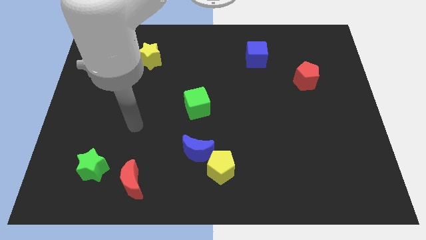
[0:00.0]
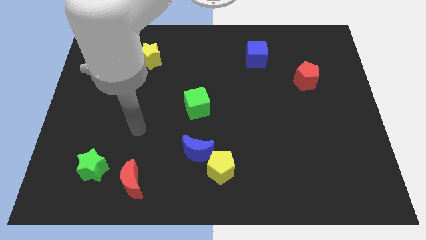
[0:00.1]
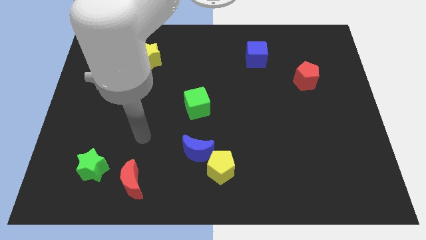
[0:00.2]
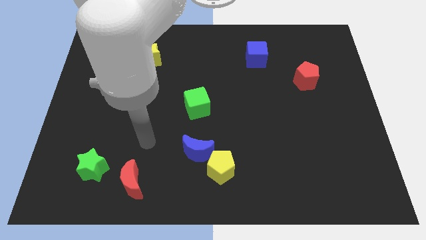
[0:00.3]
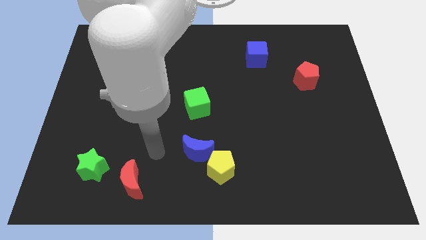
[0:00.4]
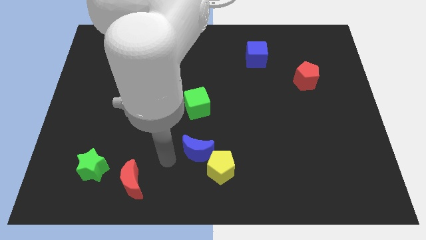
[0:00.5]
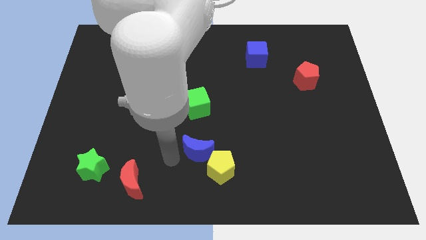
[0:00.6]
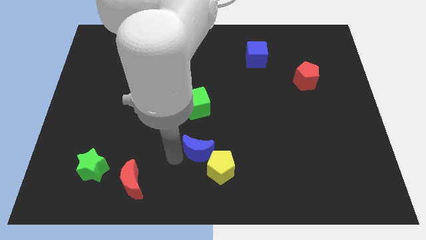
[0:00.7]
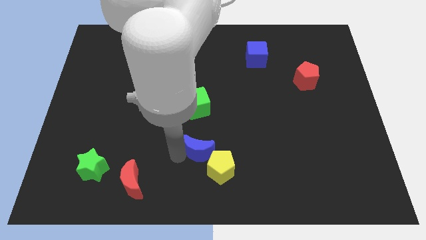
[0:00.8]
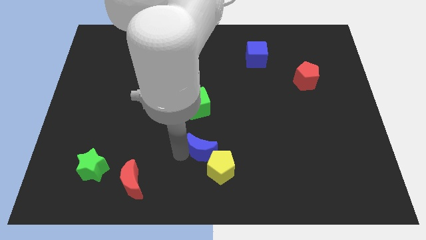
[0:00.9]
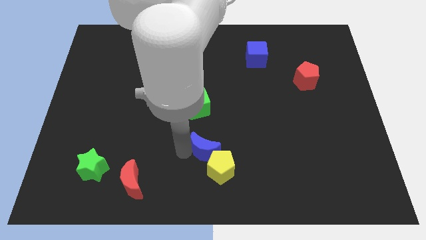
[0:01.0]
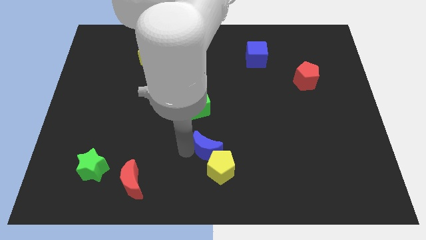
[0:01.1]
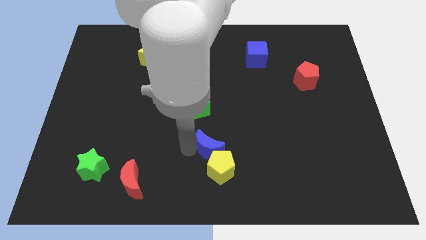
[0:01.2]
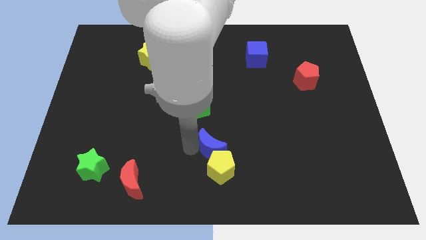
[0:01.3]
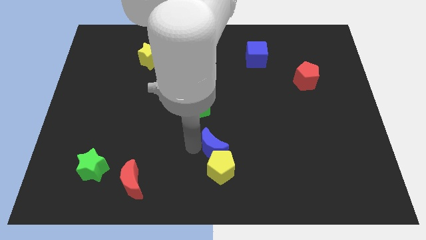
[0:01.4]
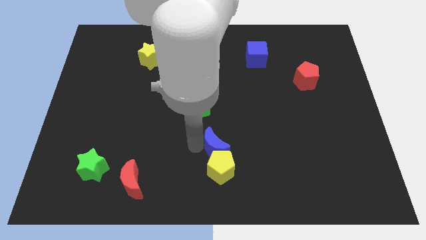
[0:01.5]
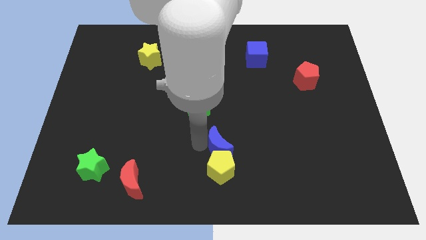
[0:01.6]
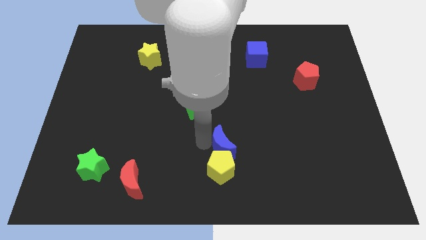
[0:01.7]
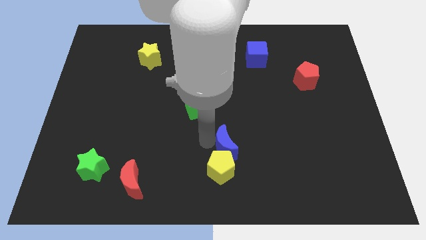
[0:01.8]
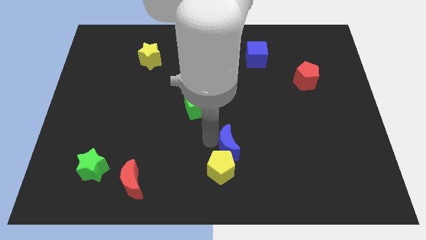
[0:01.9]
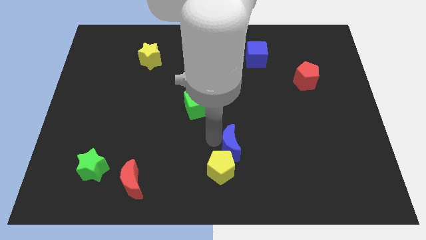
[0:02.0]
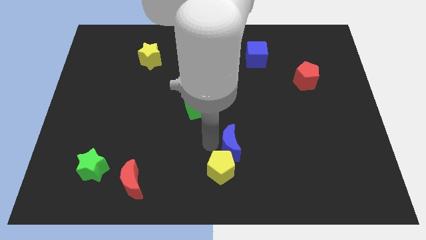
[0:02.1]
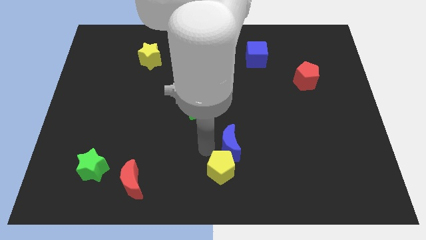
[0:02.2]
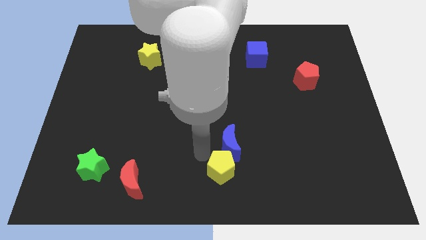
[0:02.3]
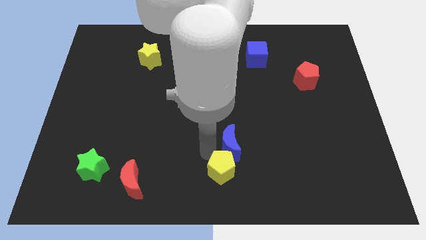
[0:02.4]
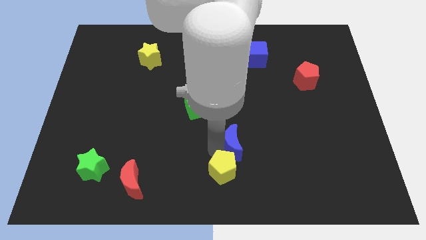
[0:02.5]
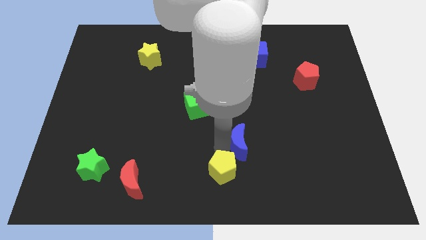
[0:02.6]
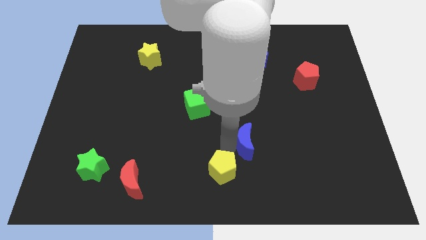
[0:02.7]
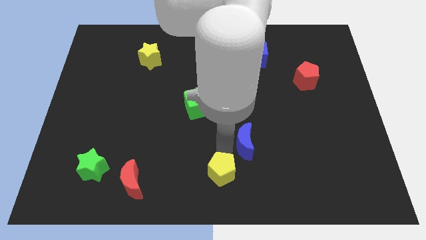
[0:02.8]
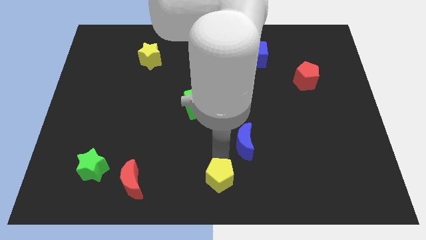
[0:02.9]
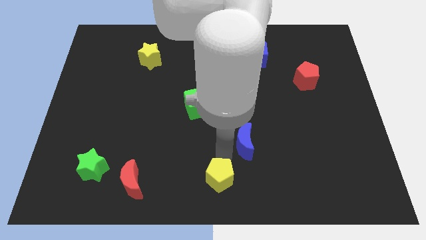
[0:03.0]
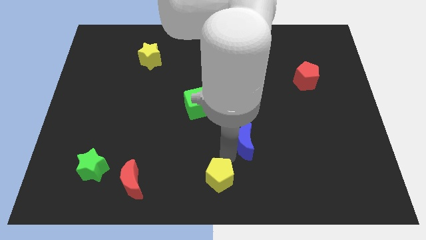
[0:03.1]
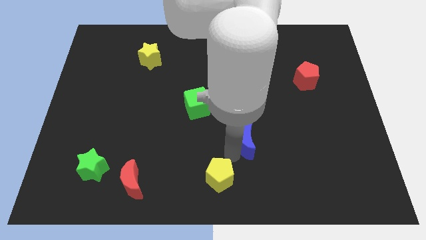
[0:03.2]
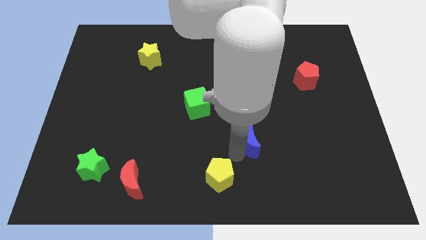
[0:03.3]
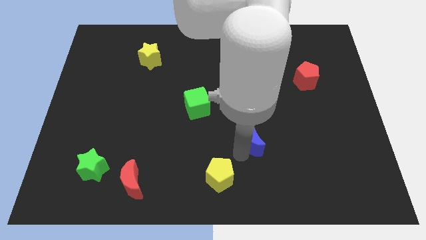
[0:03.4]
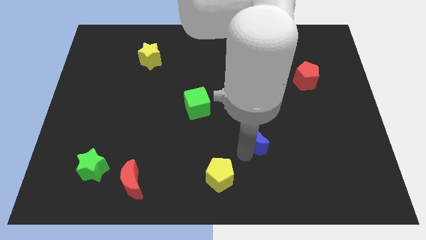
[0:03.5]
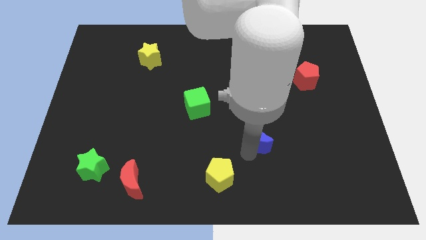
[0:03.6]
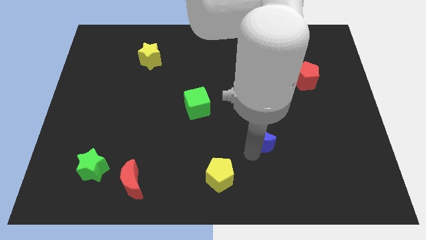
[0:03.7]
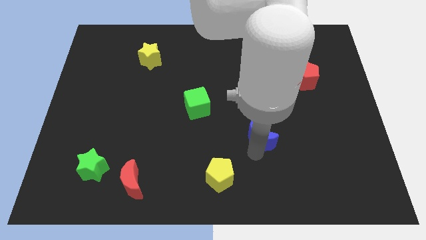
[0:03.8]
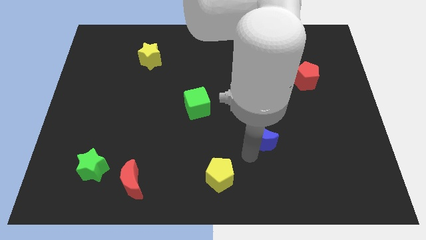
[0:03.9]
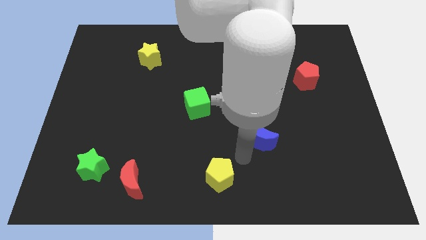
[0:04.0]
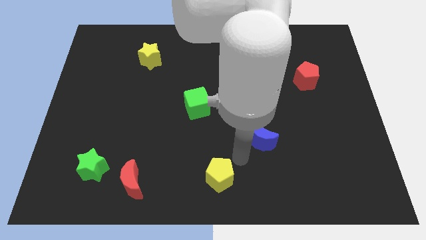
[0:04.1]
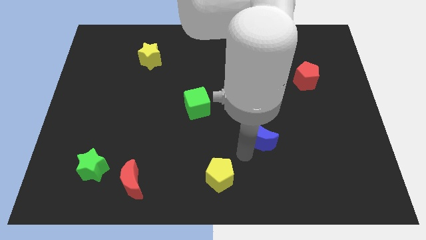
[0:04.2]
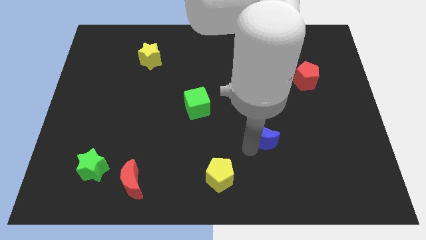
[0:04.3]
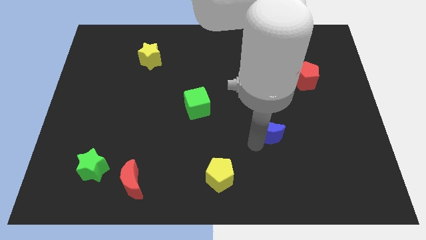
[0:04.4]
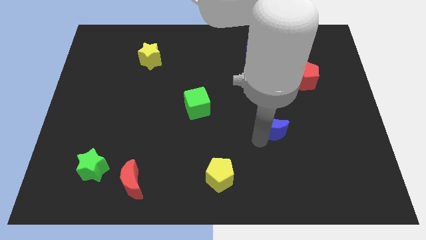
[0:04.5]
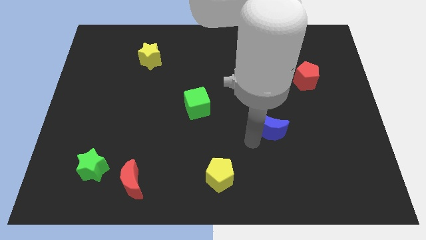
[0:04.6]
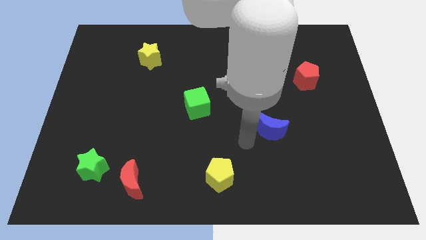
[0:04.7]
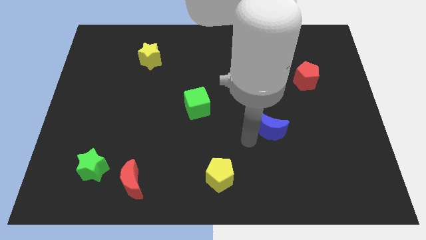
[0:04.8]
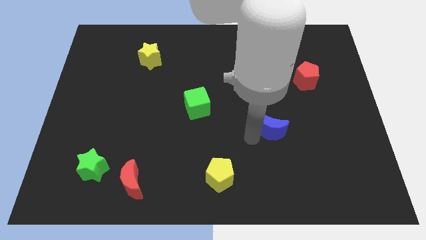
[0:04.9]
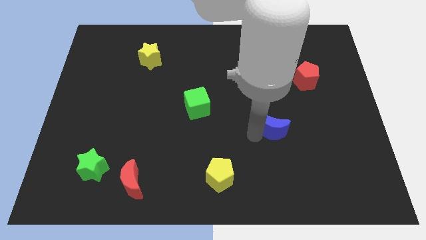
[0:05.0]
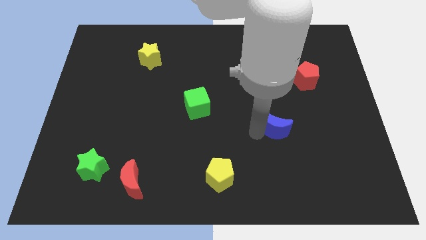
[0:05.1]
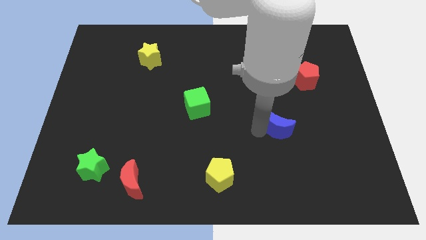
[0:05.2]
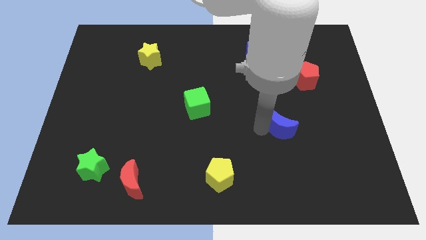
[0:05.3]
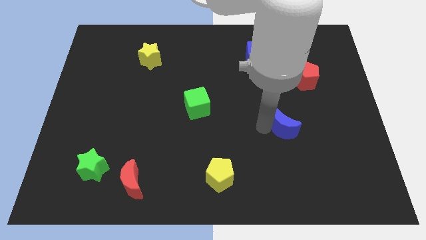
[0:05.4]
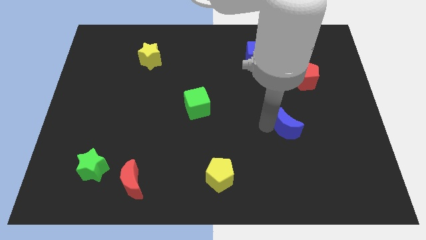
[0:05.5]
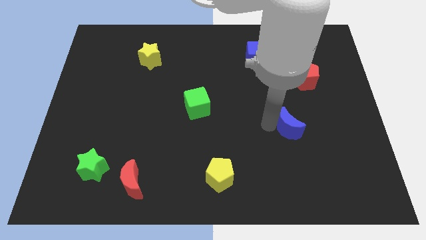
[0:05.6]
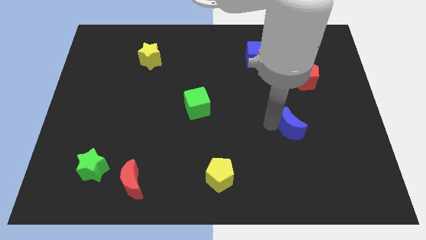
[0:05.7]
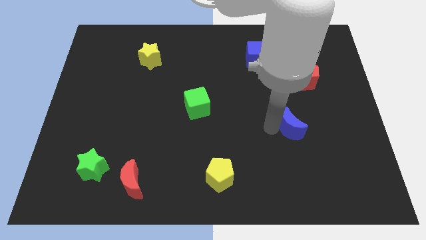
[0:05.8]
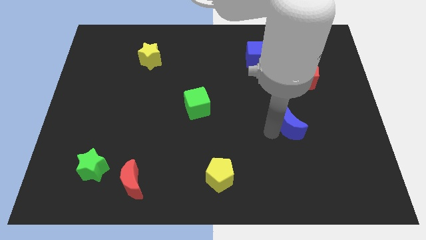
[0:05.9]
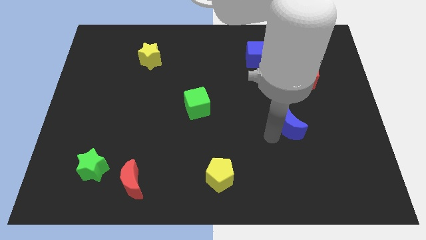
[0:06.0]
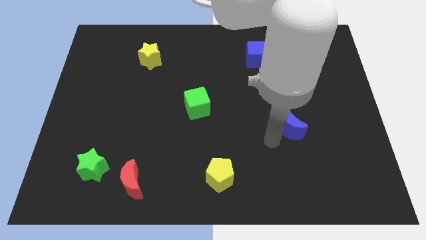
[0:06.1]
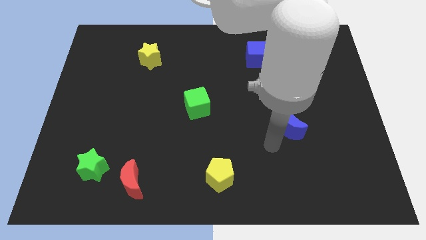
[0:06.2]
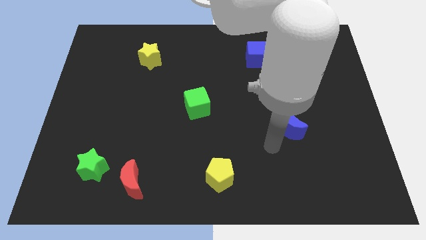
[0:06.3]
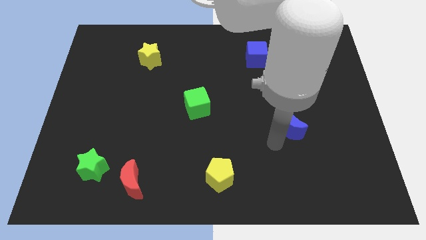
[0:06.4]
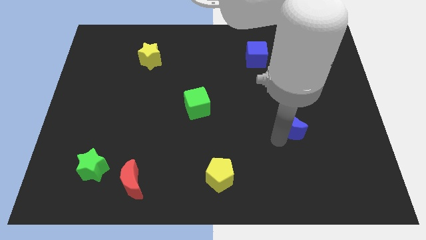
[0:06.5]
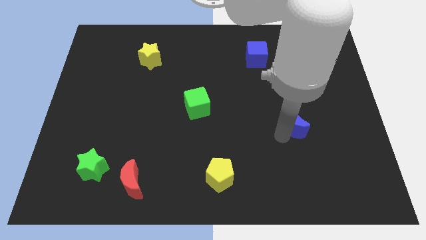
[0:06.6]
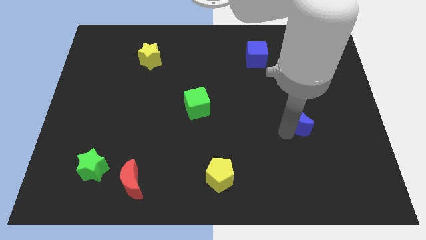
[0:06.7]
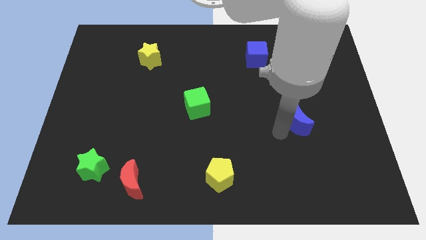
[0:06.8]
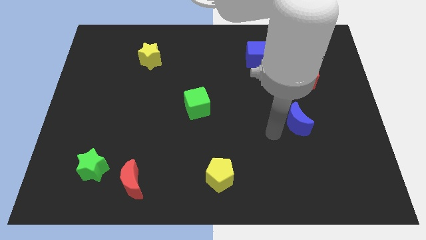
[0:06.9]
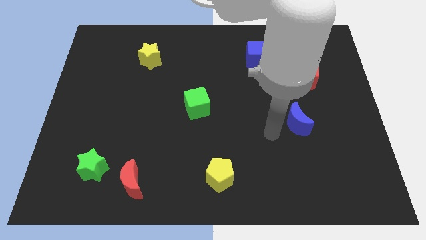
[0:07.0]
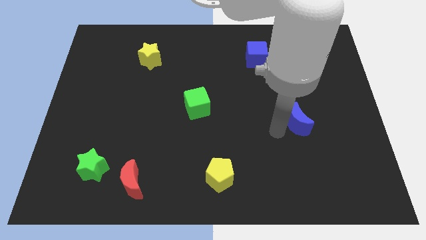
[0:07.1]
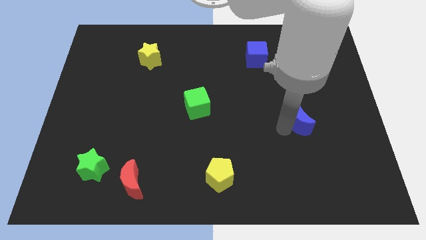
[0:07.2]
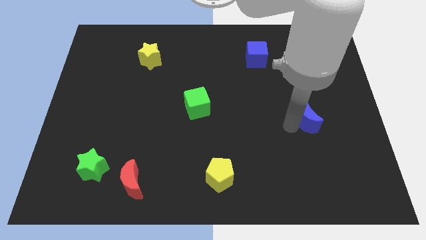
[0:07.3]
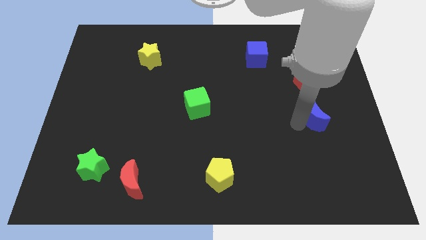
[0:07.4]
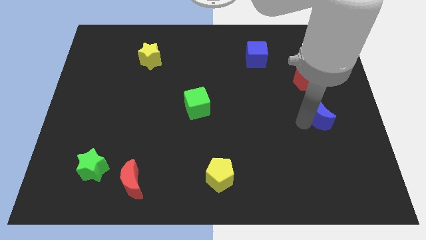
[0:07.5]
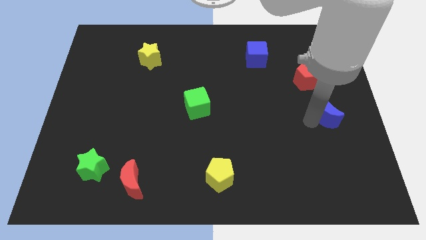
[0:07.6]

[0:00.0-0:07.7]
push the blue moon to the right side
